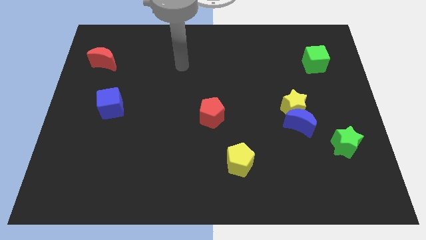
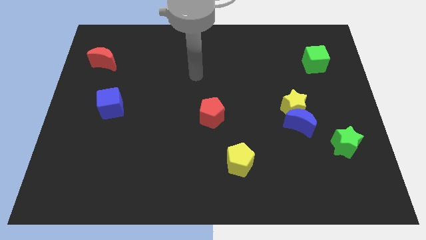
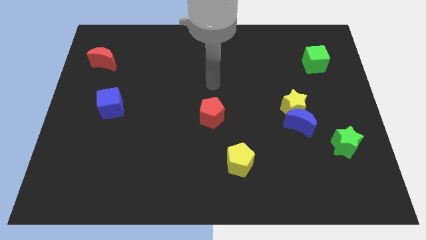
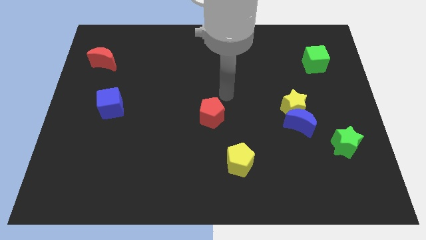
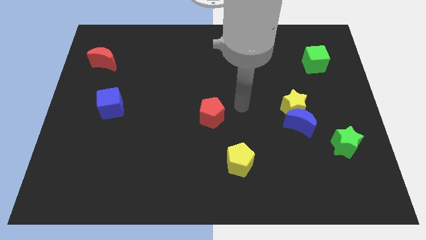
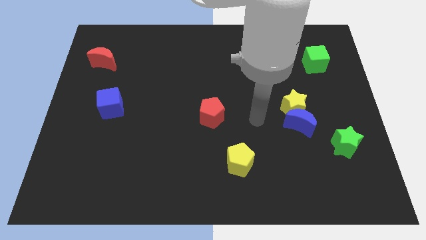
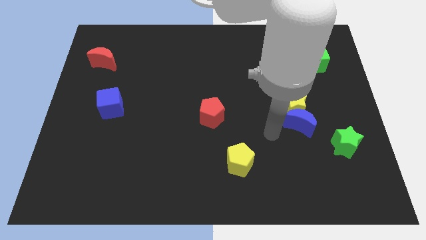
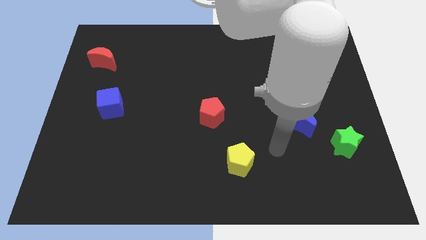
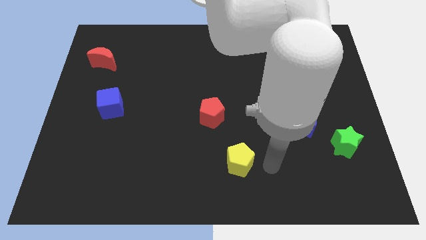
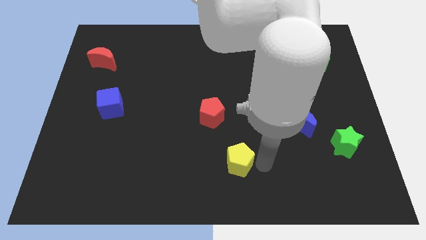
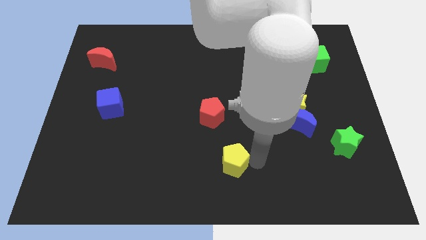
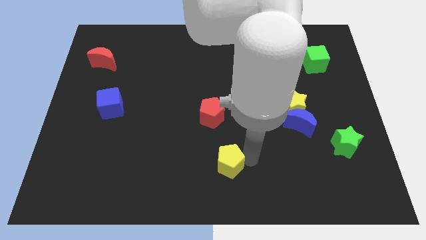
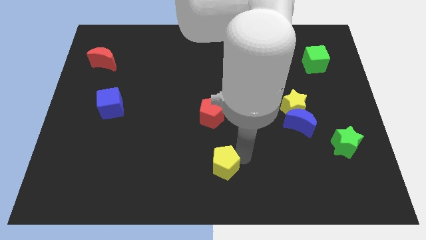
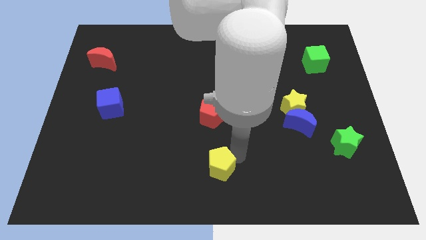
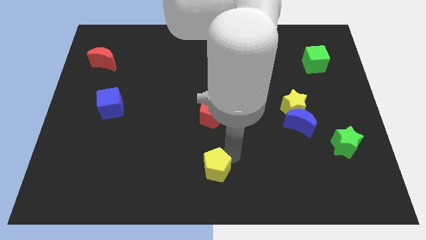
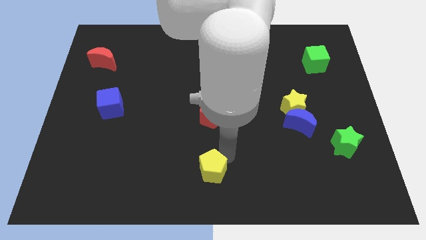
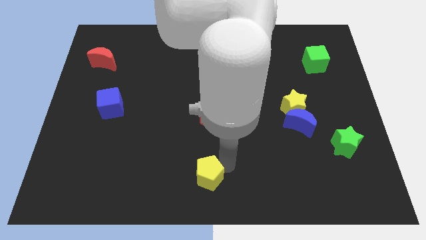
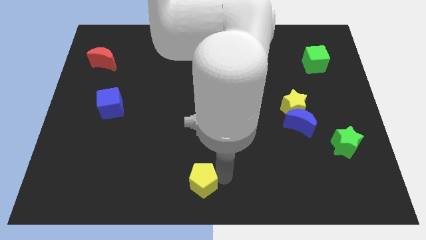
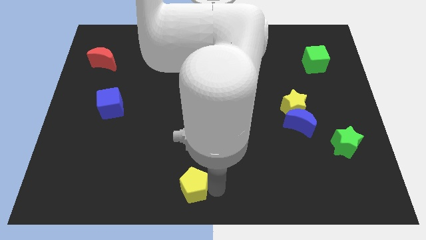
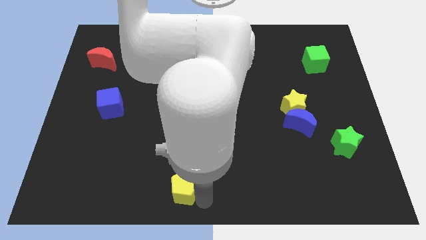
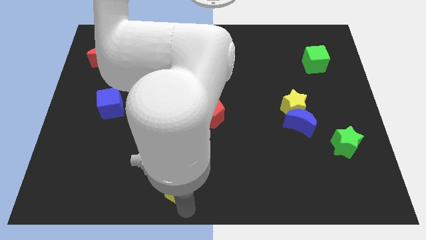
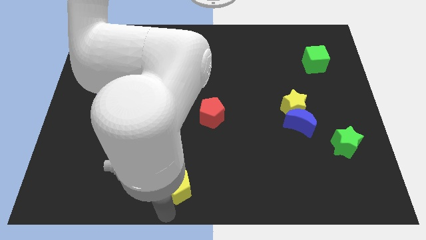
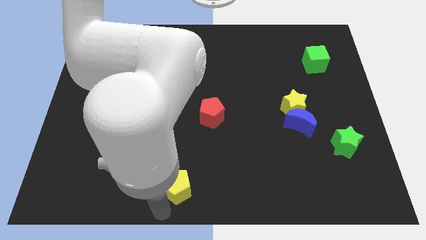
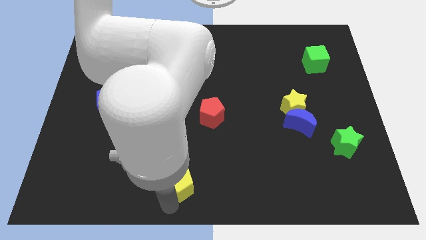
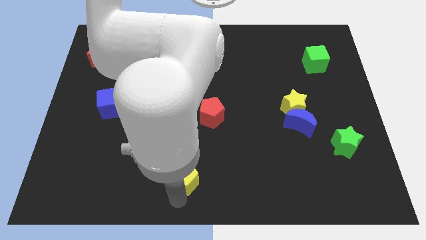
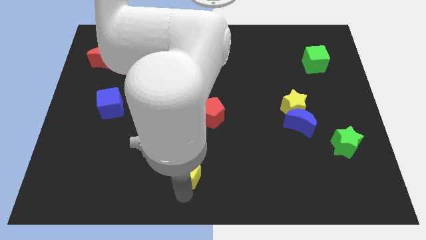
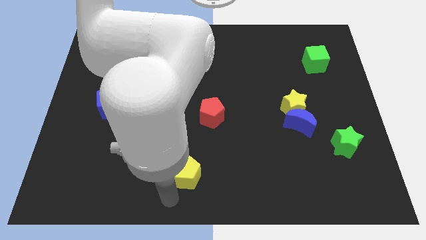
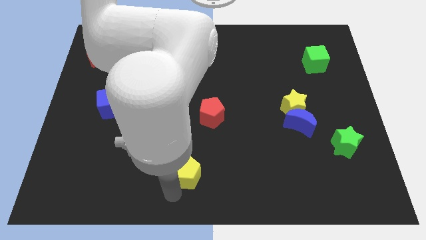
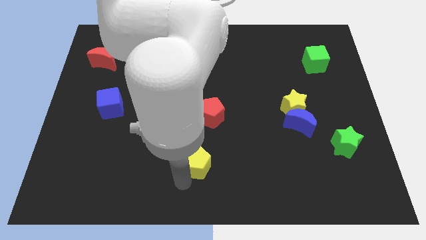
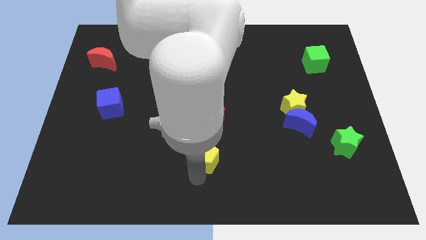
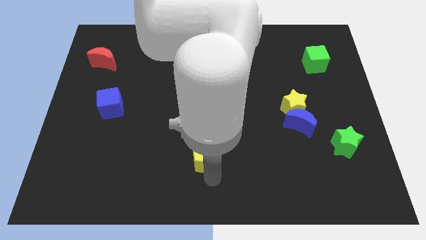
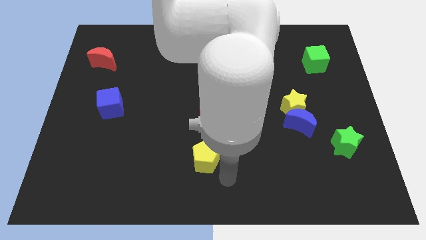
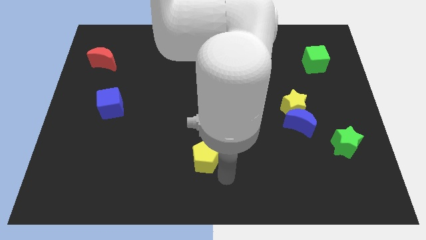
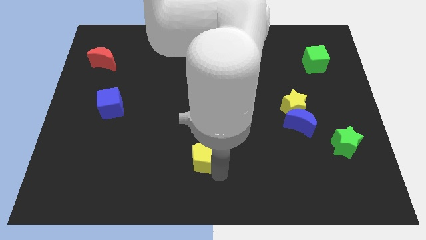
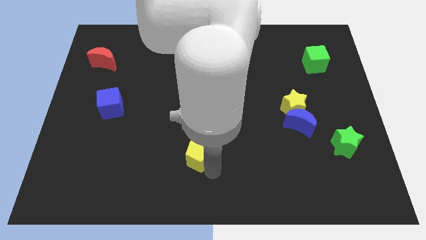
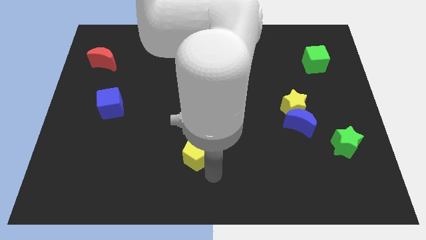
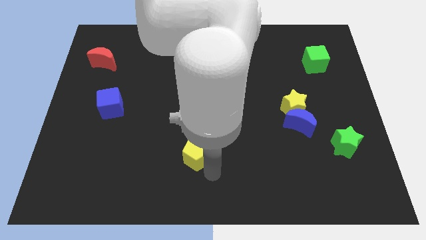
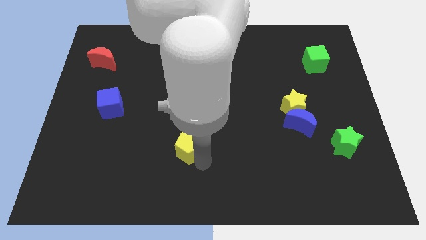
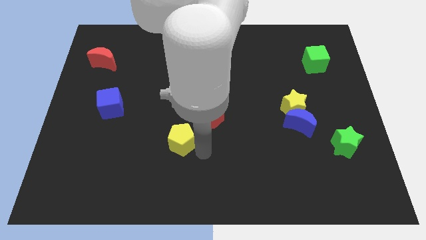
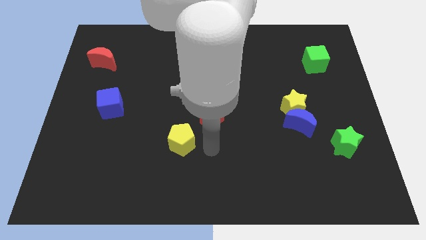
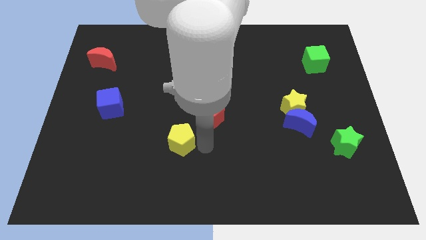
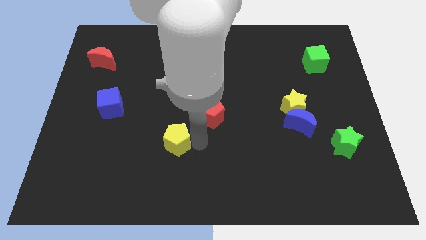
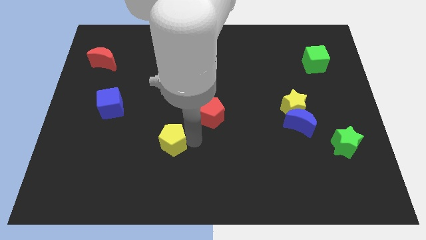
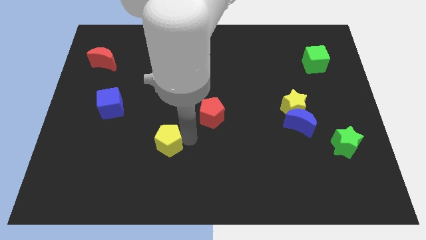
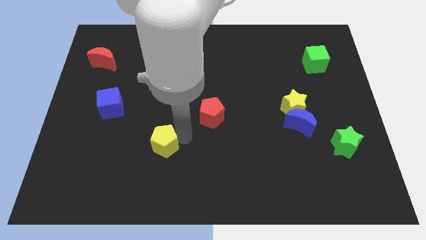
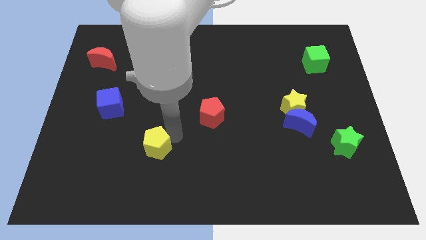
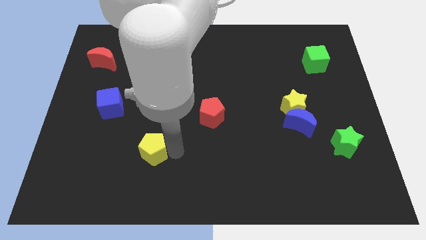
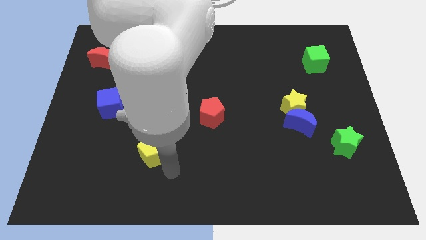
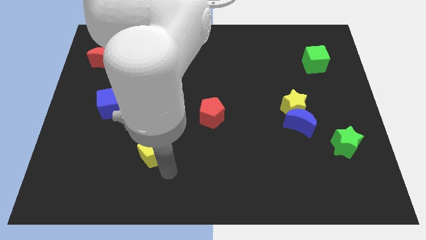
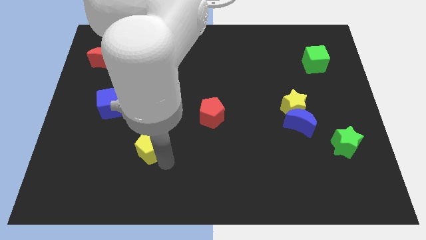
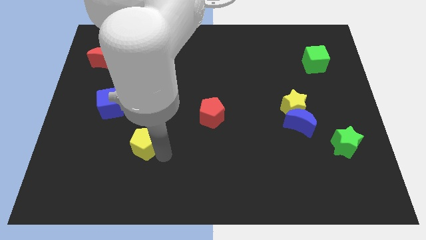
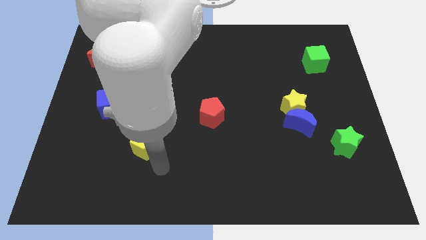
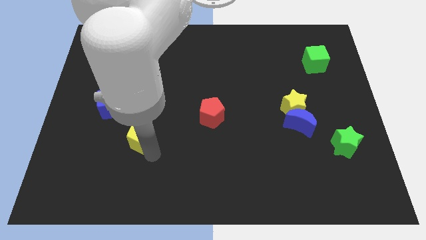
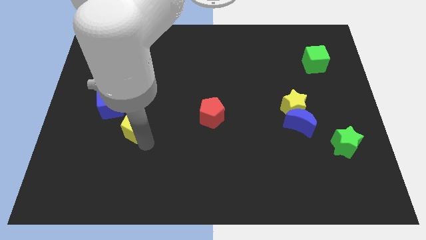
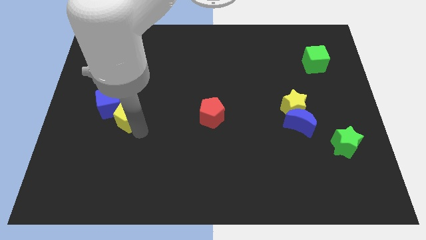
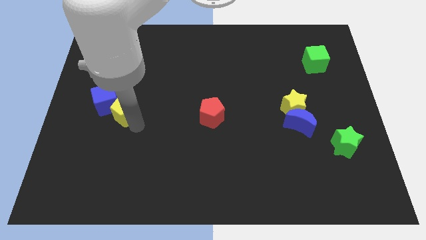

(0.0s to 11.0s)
push the yellow pentagon to the blue cube
